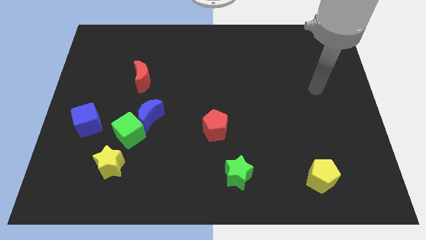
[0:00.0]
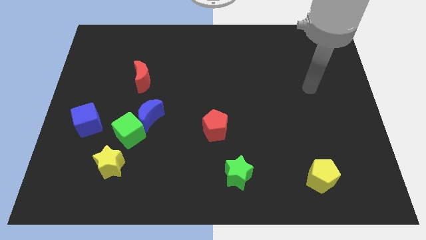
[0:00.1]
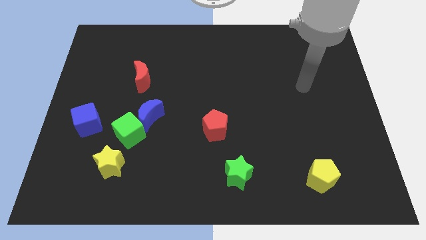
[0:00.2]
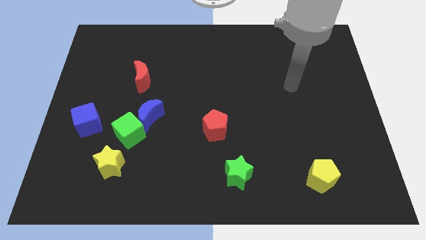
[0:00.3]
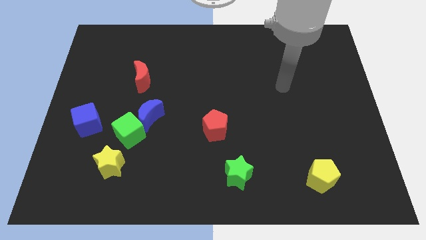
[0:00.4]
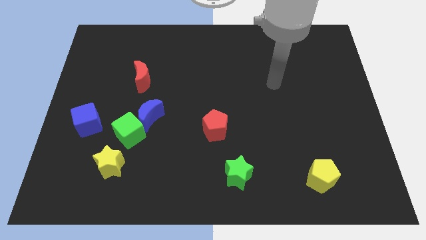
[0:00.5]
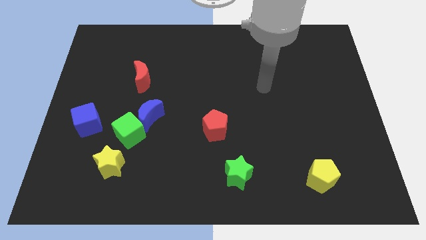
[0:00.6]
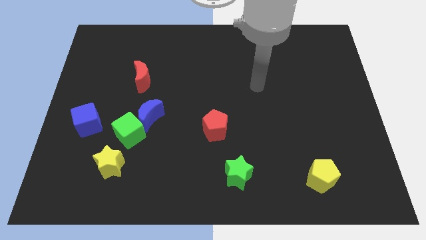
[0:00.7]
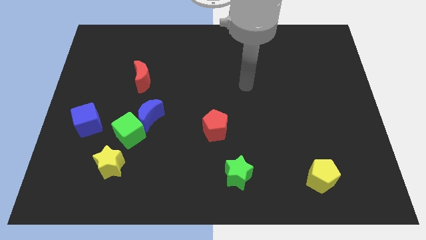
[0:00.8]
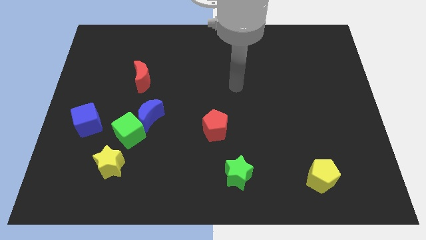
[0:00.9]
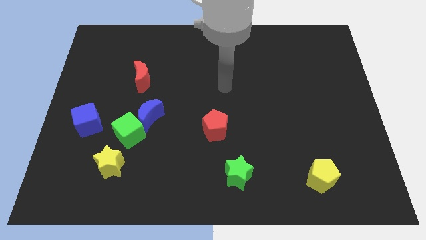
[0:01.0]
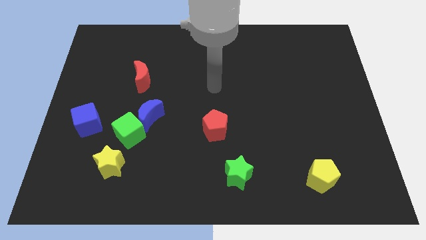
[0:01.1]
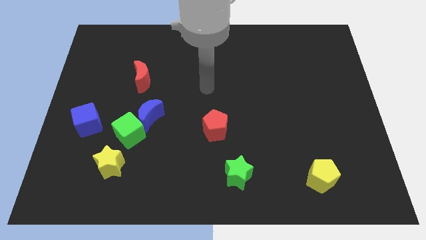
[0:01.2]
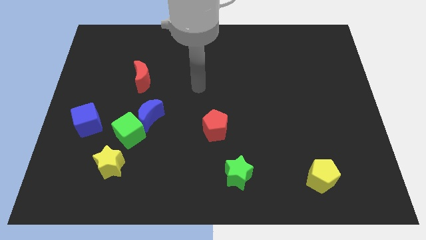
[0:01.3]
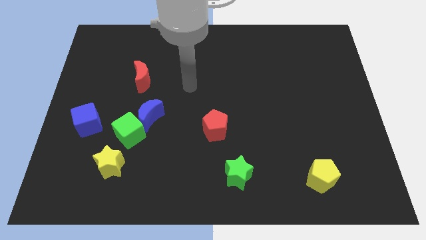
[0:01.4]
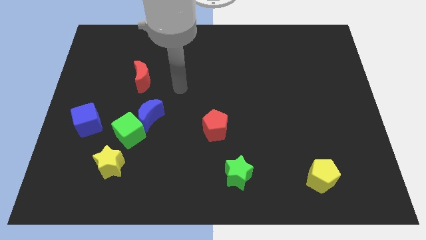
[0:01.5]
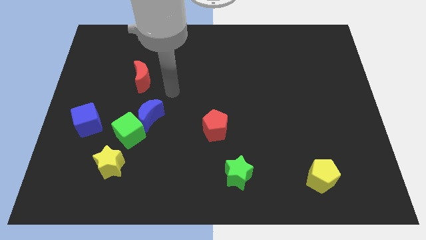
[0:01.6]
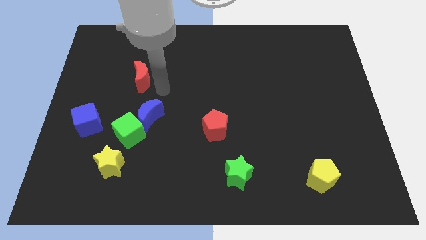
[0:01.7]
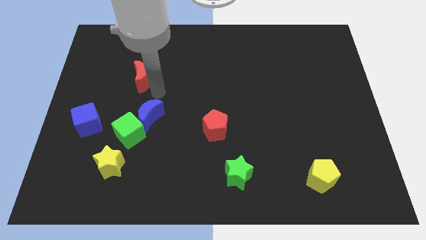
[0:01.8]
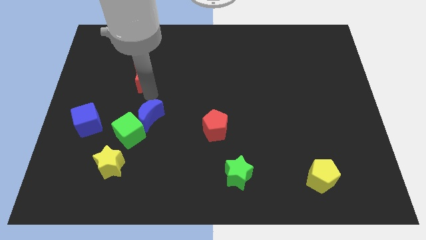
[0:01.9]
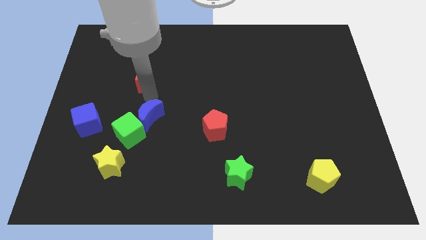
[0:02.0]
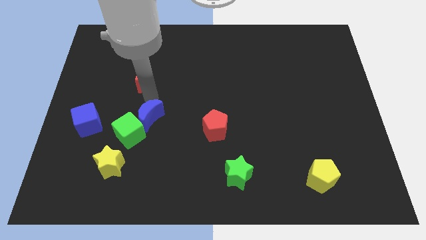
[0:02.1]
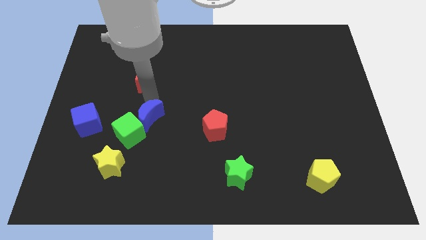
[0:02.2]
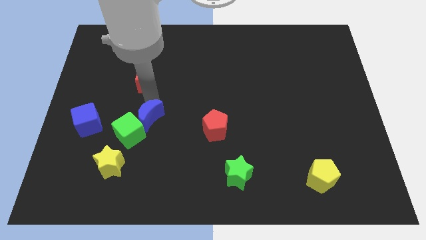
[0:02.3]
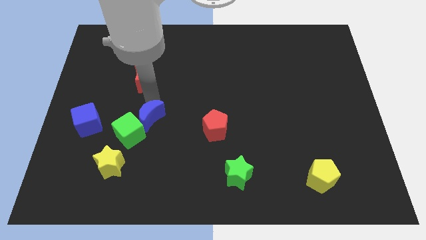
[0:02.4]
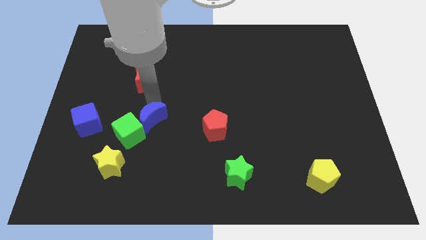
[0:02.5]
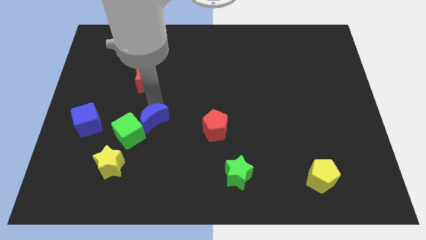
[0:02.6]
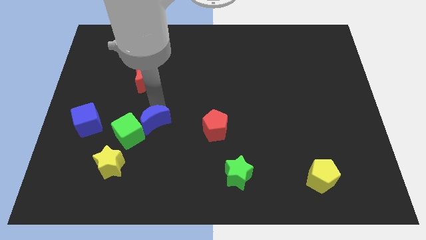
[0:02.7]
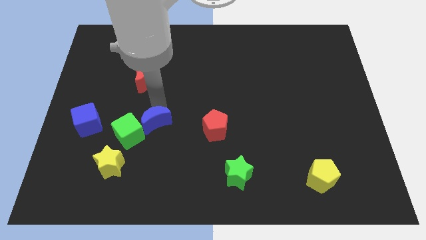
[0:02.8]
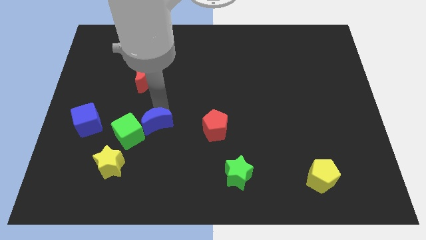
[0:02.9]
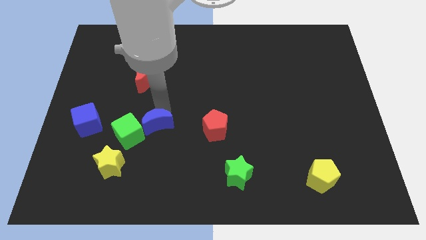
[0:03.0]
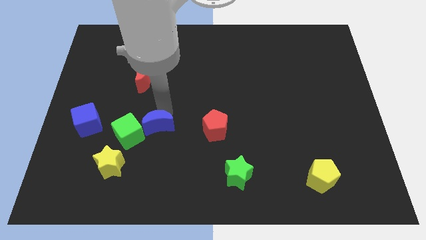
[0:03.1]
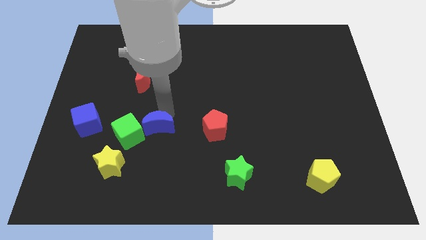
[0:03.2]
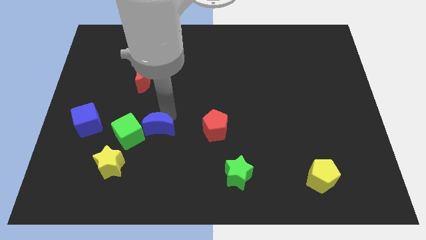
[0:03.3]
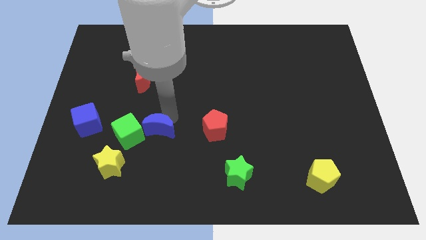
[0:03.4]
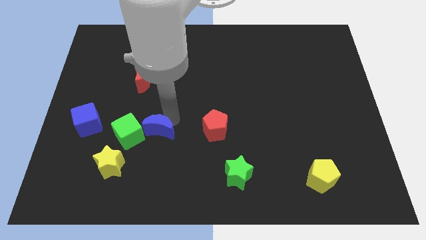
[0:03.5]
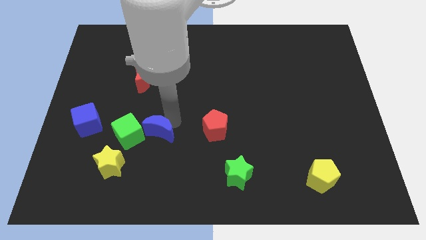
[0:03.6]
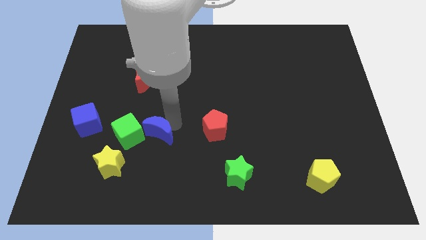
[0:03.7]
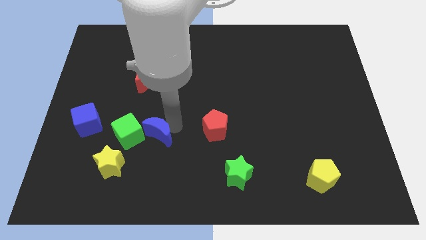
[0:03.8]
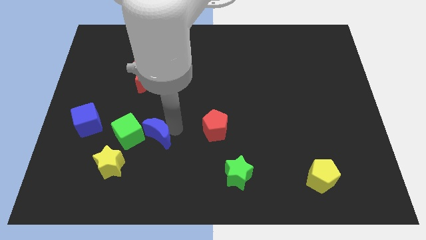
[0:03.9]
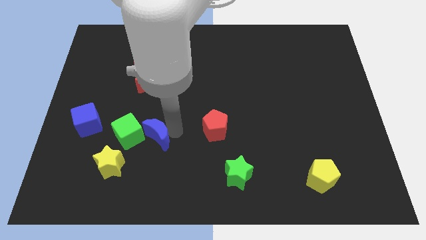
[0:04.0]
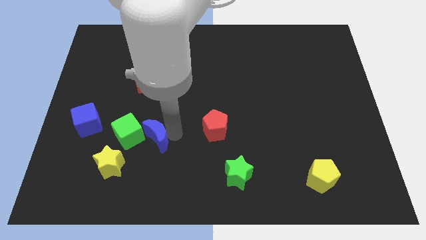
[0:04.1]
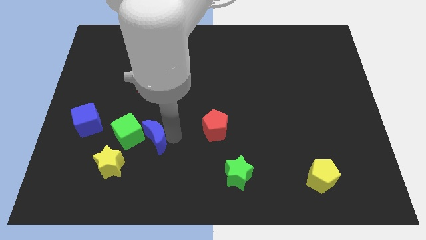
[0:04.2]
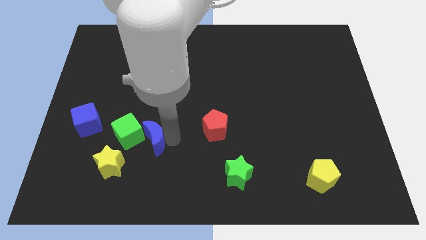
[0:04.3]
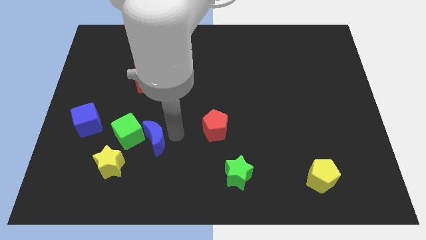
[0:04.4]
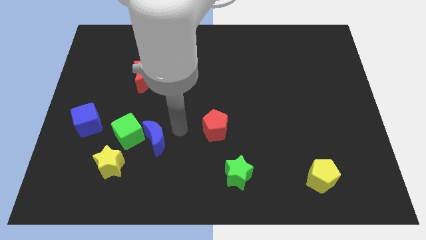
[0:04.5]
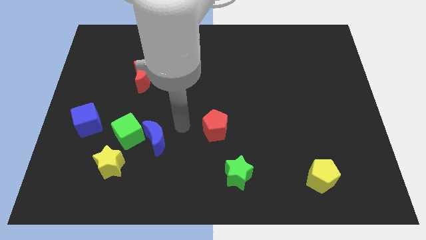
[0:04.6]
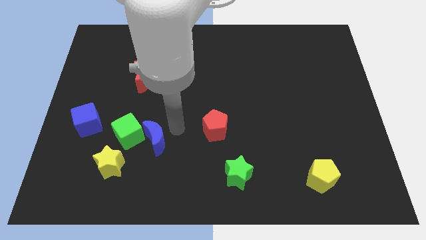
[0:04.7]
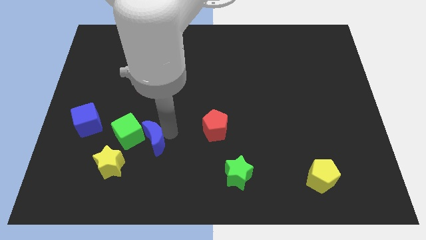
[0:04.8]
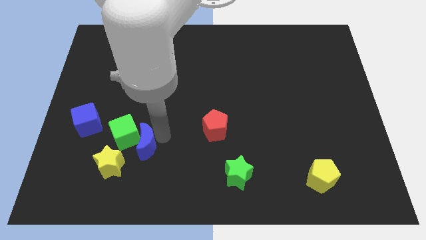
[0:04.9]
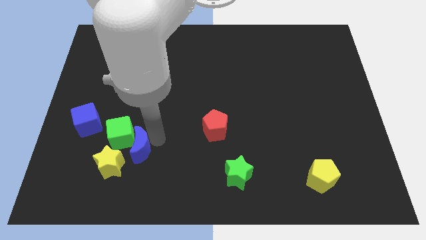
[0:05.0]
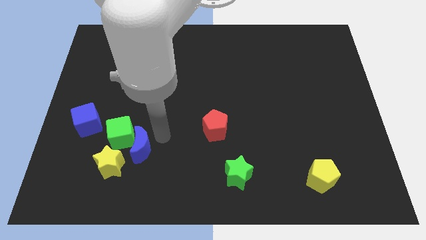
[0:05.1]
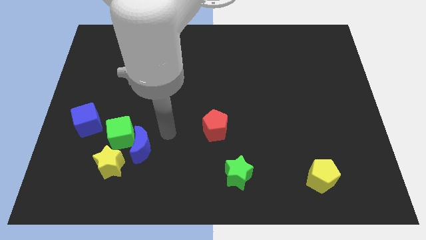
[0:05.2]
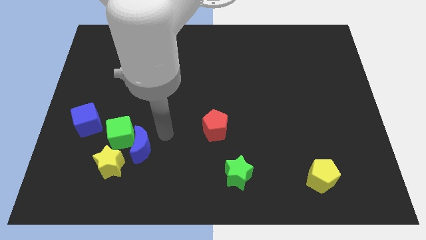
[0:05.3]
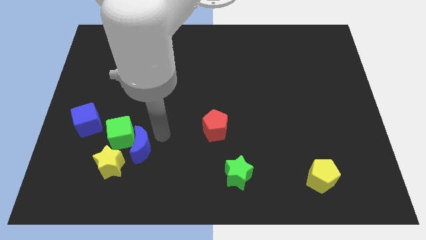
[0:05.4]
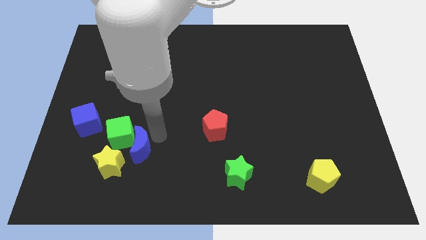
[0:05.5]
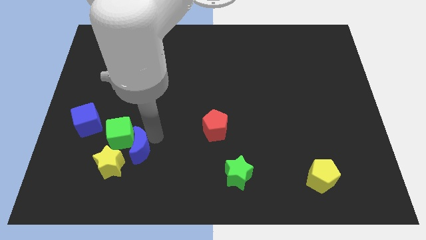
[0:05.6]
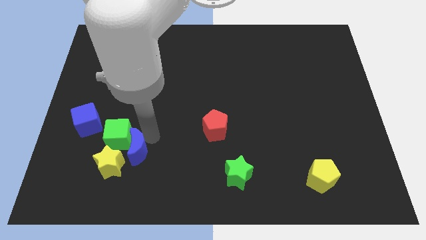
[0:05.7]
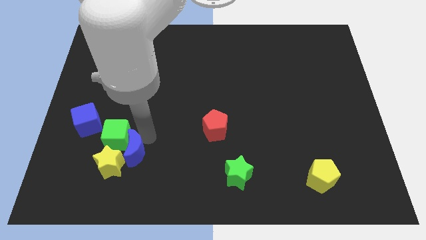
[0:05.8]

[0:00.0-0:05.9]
slide the blue moon towards the yellow star

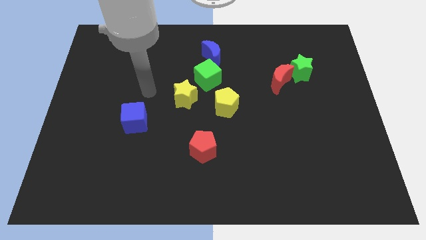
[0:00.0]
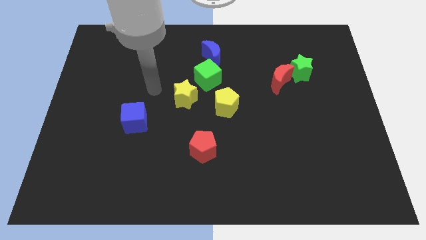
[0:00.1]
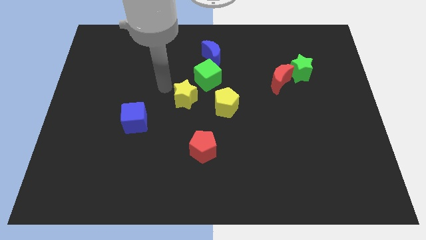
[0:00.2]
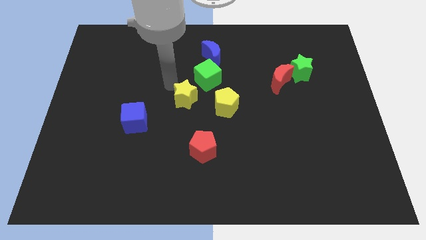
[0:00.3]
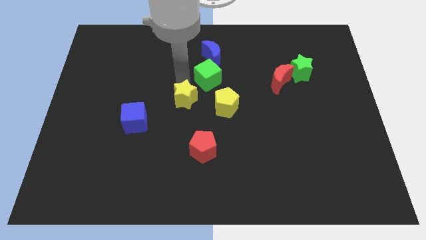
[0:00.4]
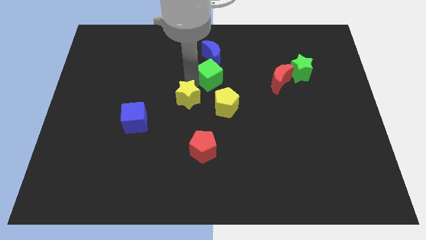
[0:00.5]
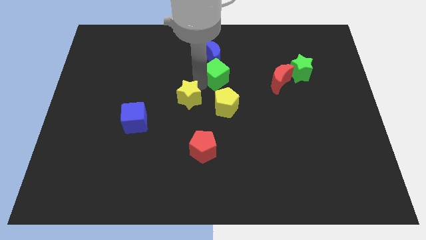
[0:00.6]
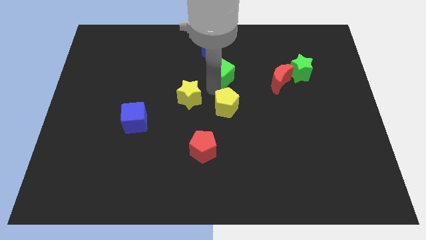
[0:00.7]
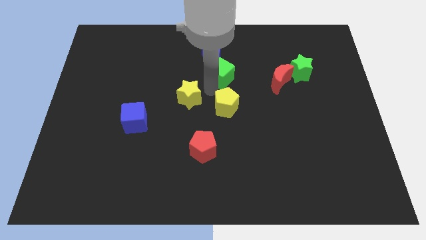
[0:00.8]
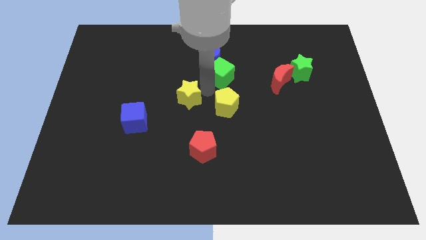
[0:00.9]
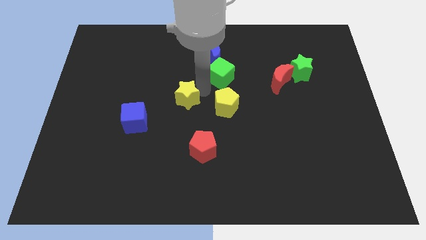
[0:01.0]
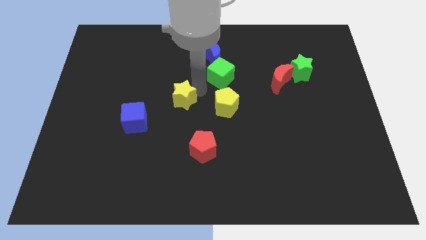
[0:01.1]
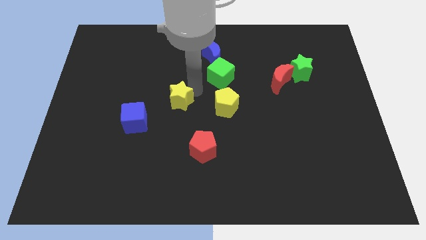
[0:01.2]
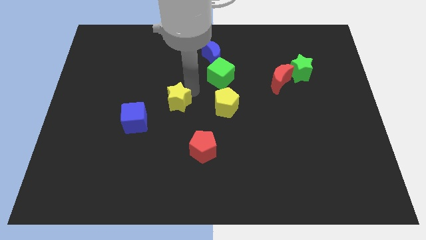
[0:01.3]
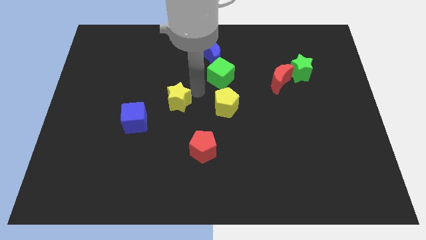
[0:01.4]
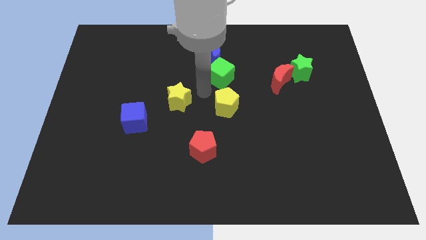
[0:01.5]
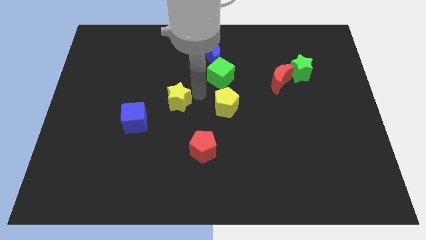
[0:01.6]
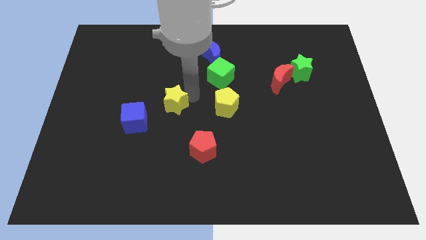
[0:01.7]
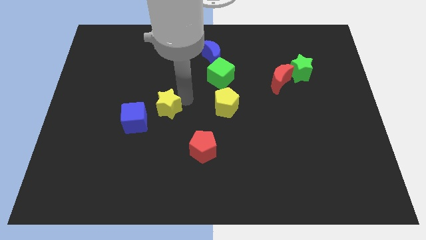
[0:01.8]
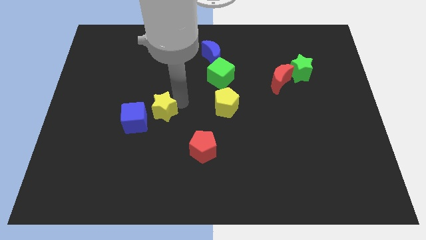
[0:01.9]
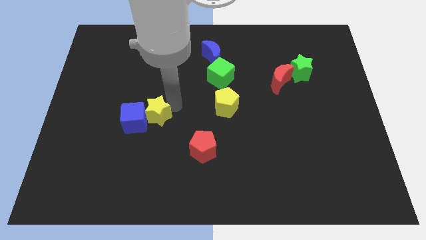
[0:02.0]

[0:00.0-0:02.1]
put the yellow star close to the blue cube
